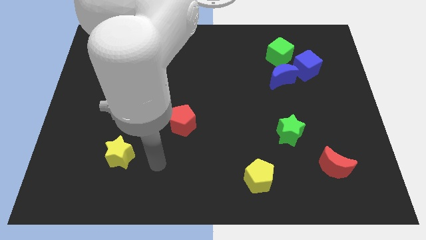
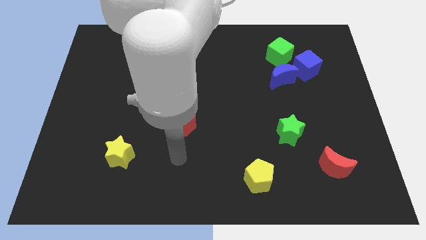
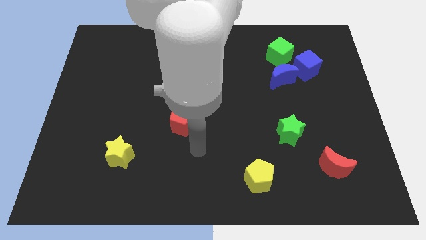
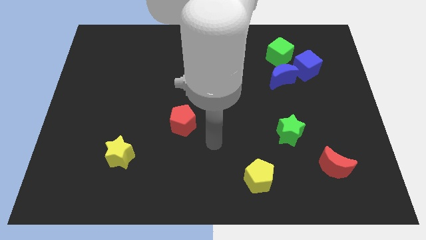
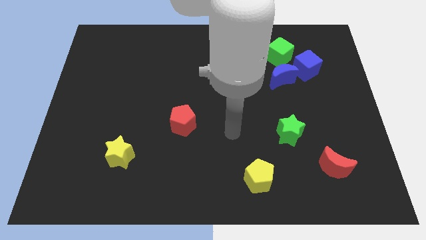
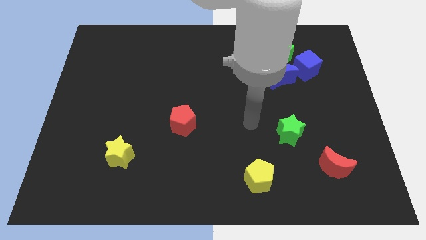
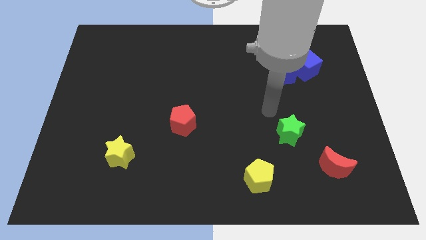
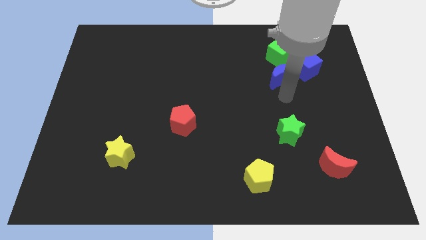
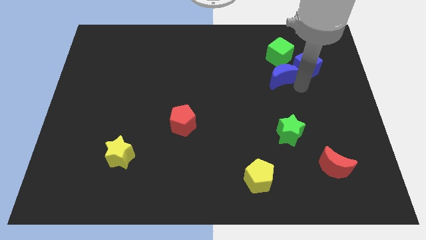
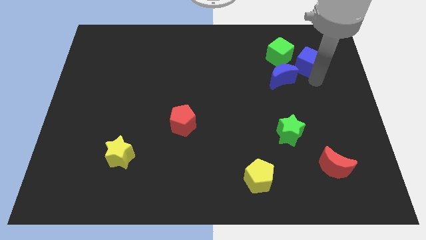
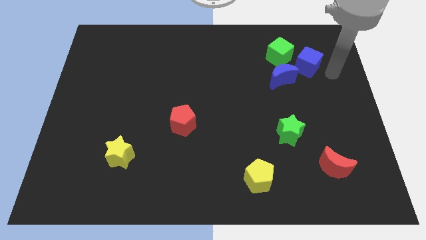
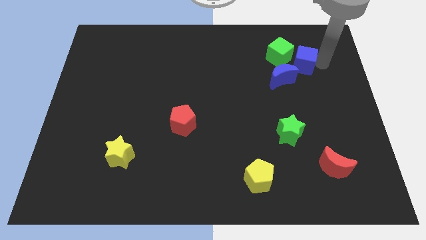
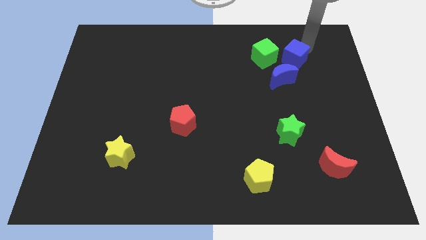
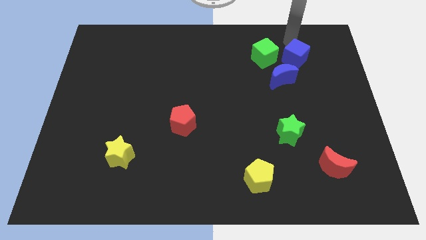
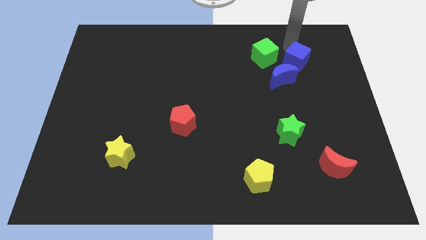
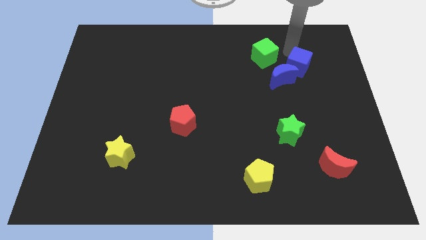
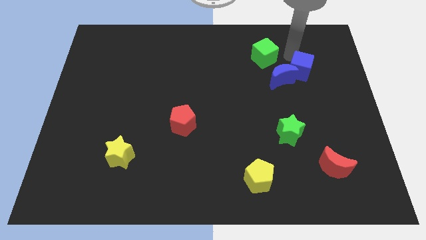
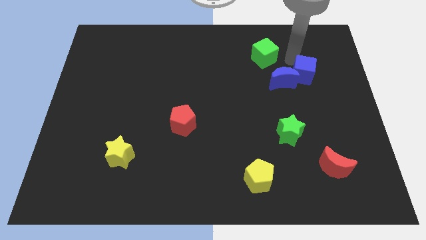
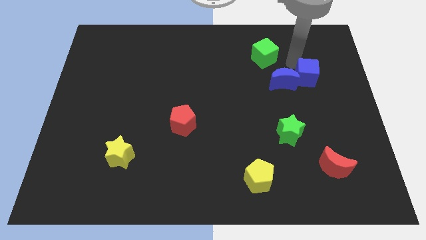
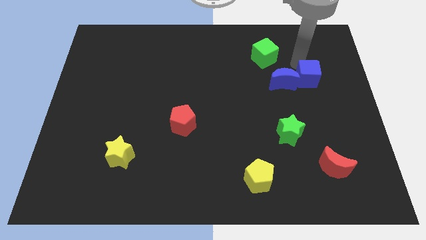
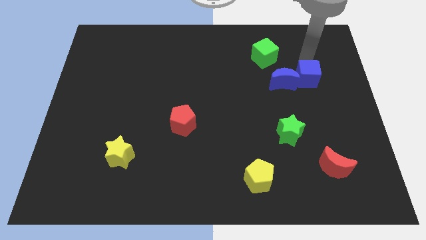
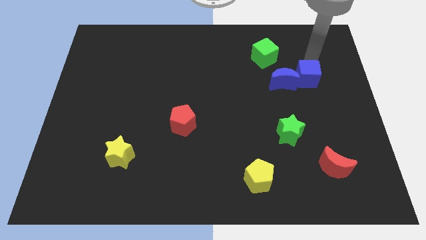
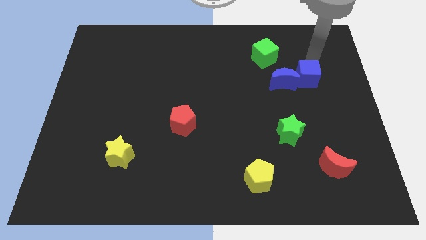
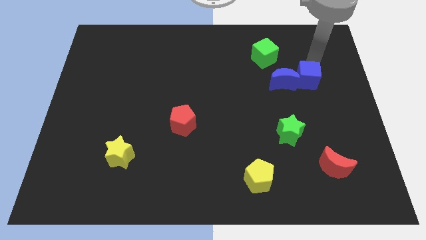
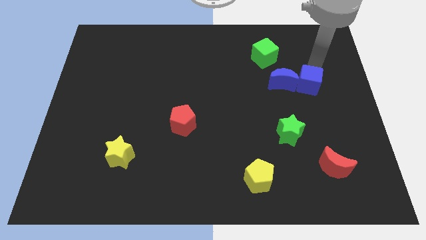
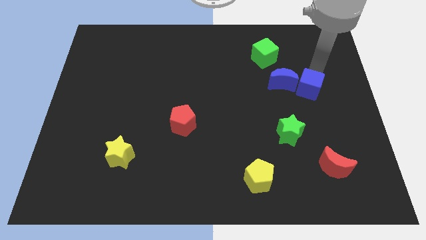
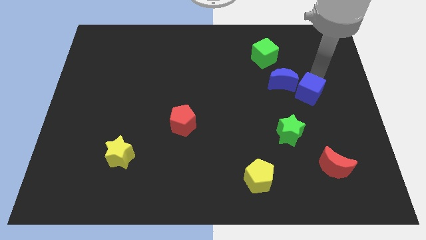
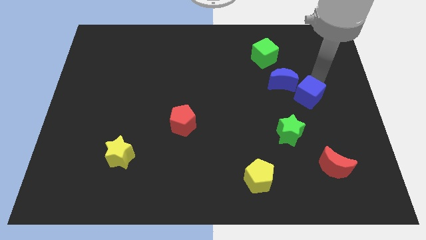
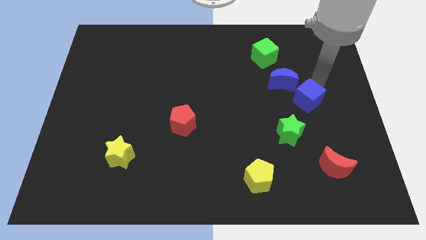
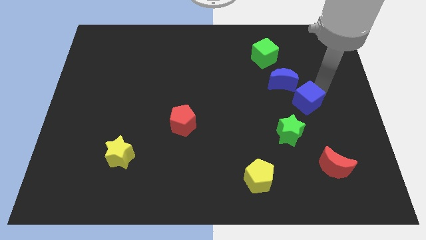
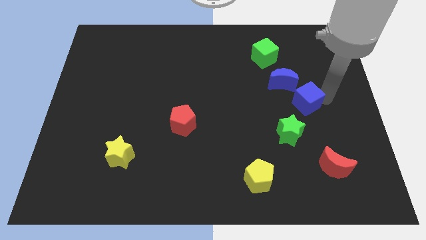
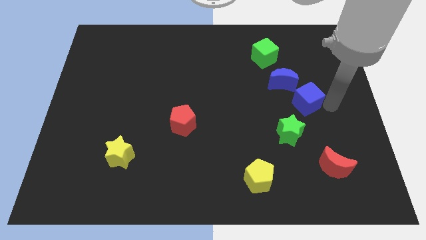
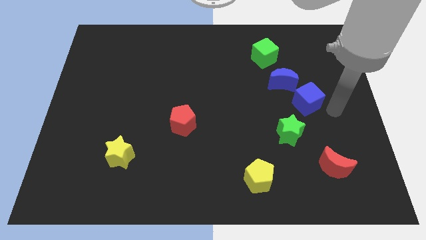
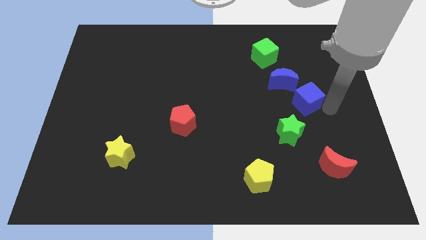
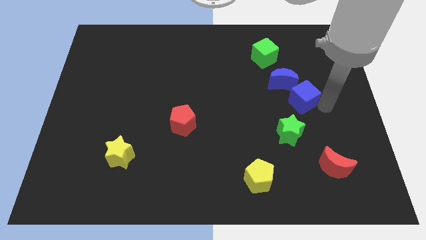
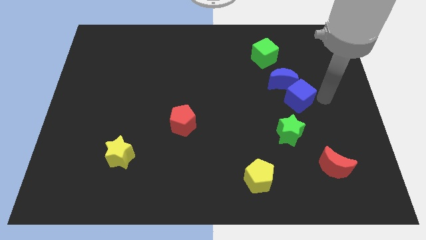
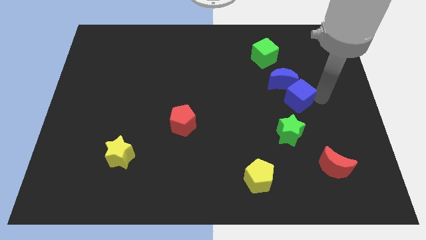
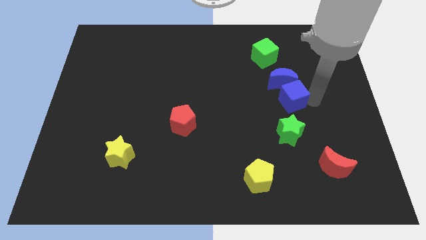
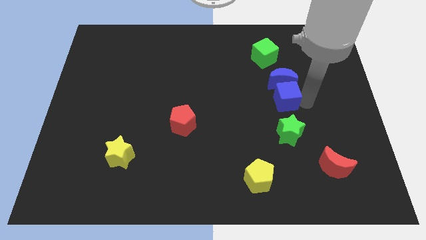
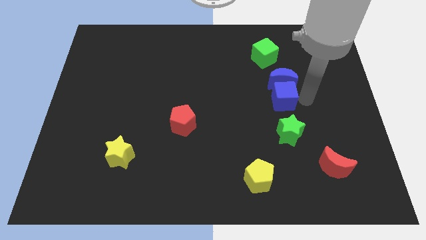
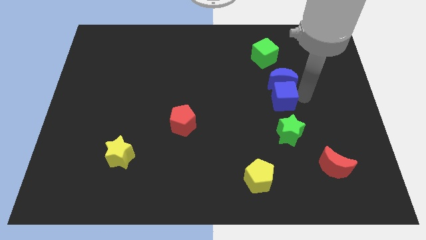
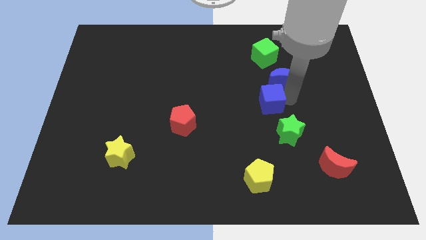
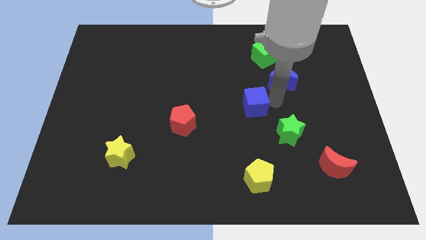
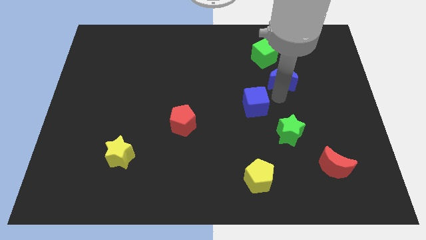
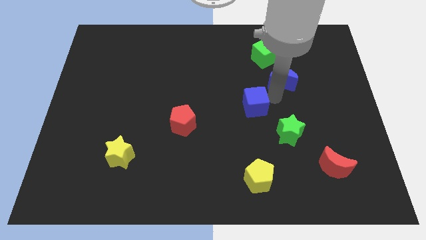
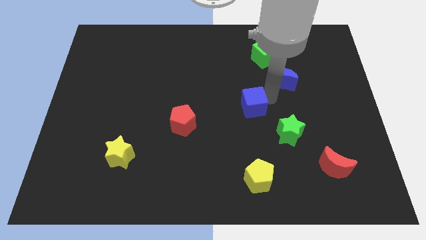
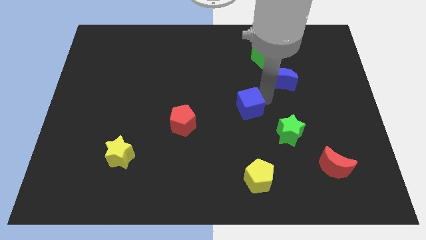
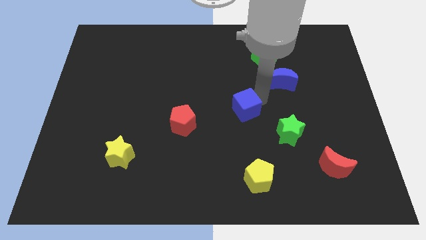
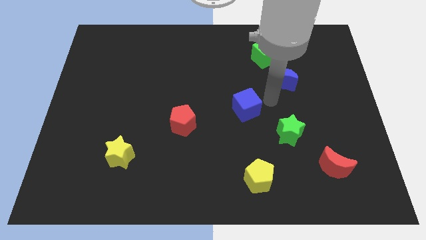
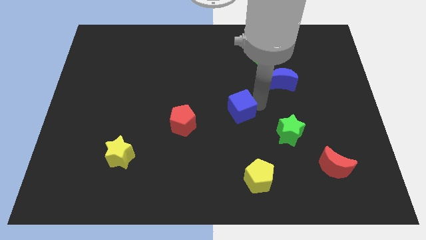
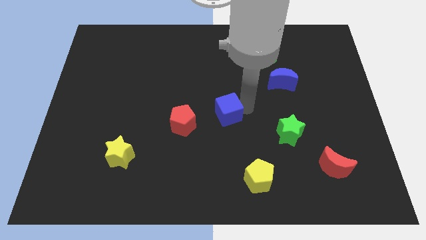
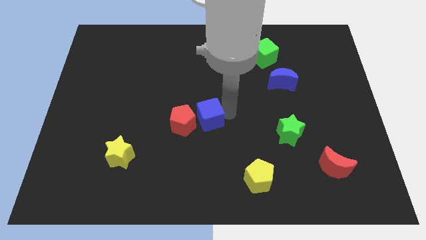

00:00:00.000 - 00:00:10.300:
slide the blue cube towards the red pentagon

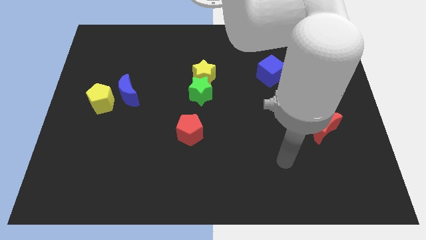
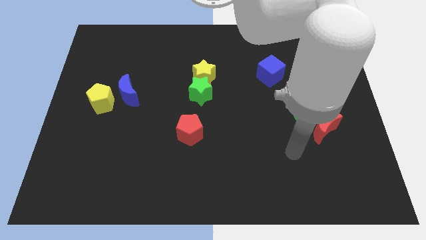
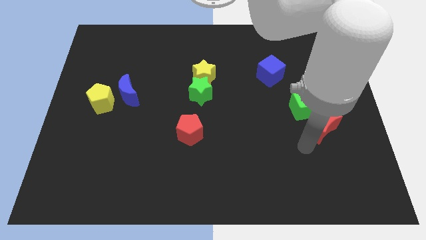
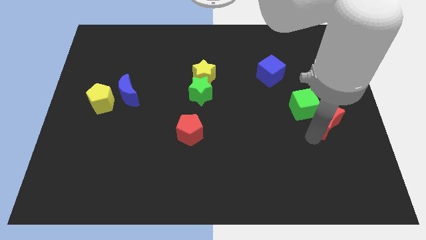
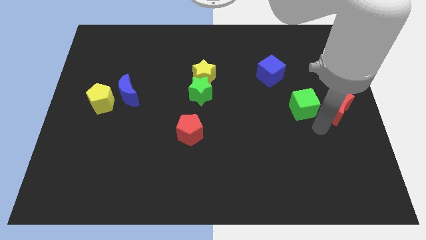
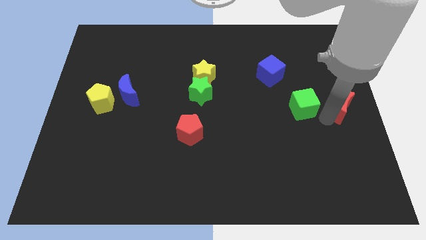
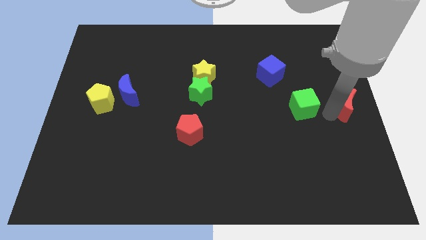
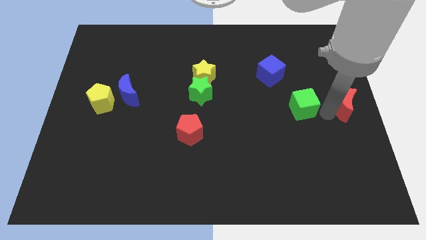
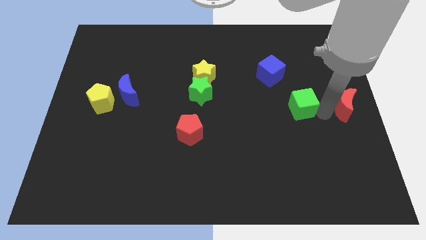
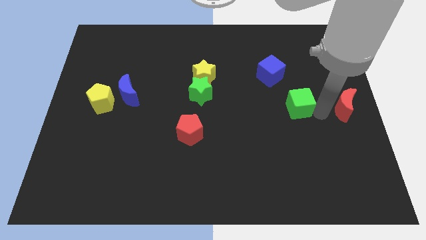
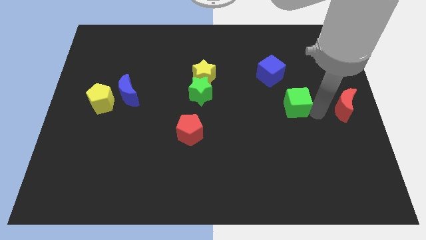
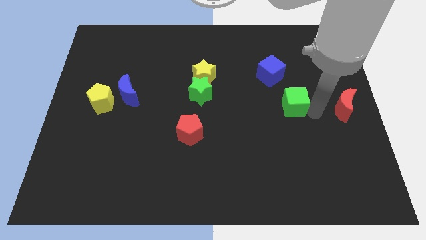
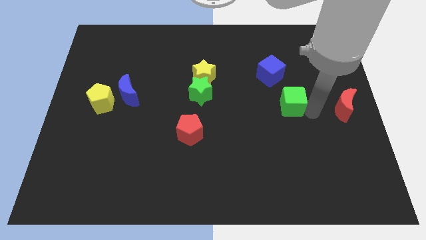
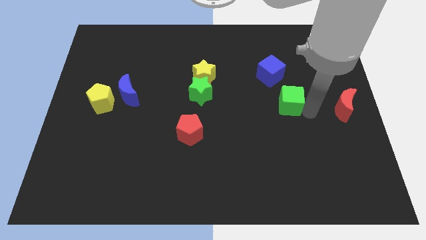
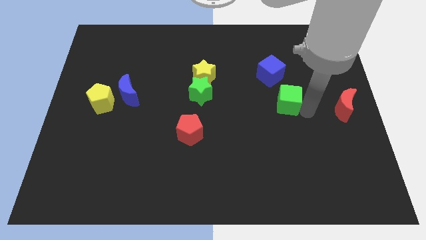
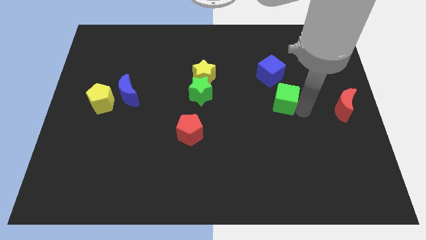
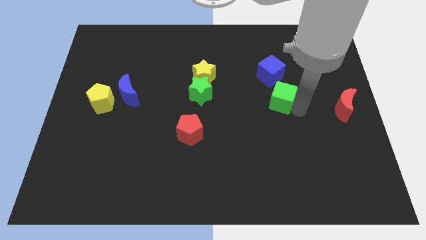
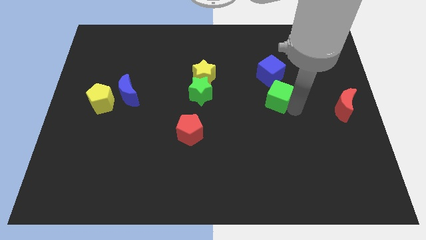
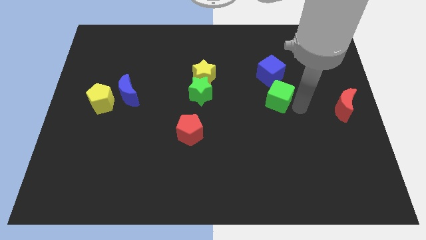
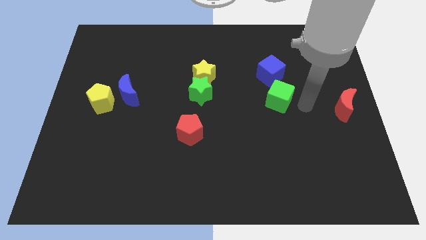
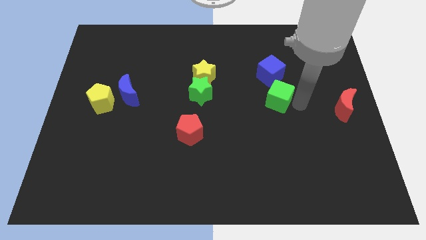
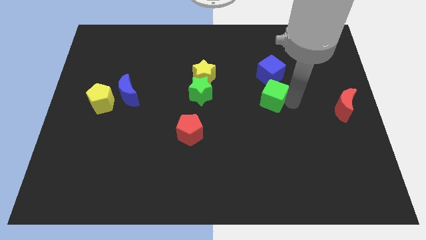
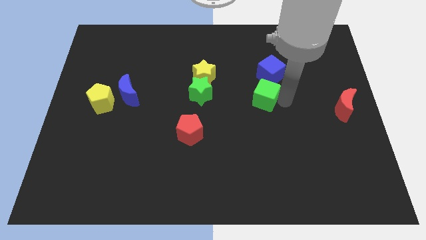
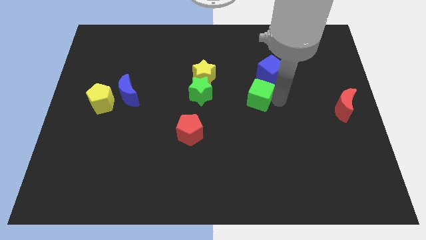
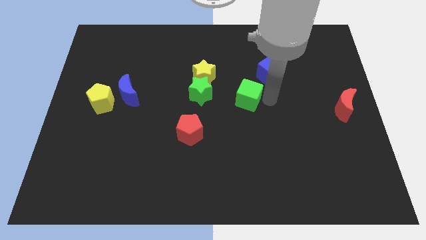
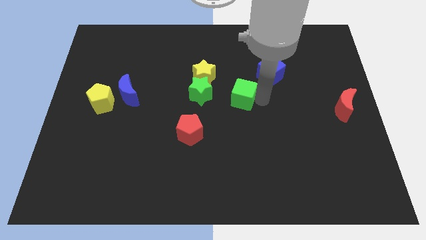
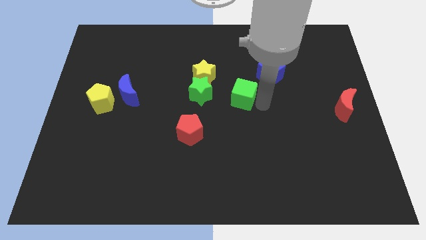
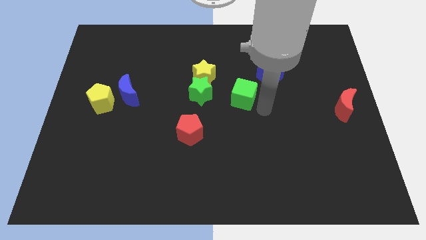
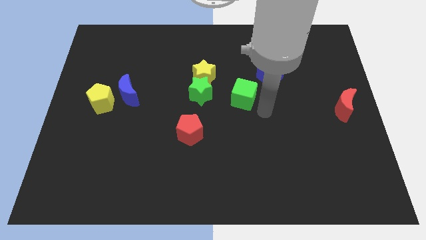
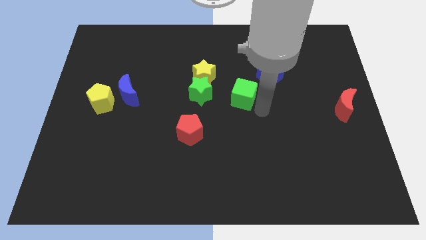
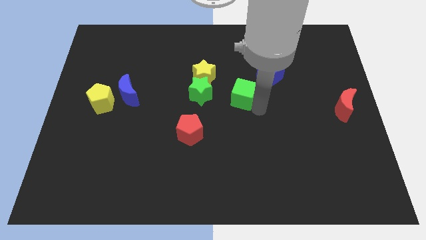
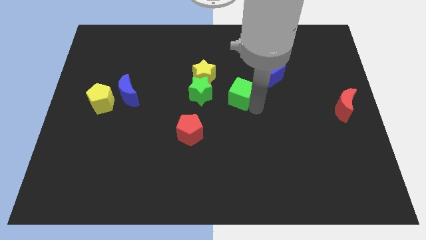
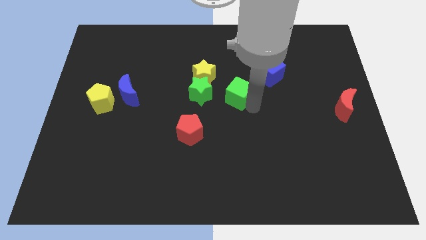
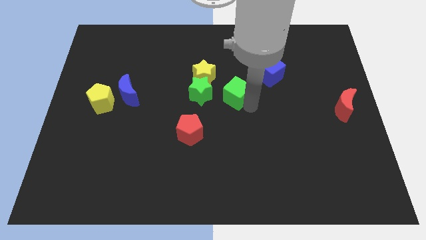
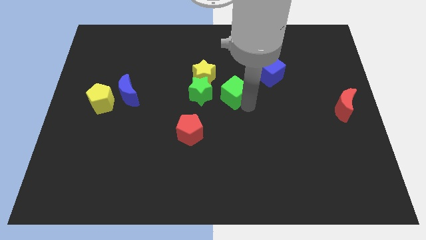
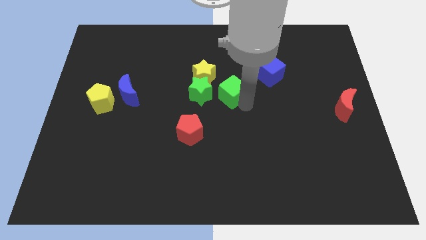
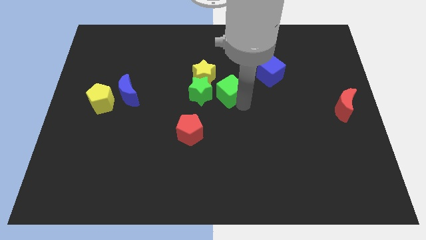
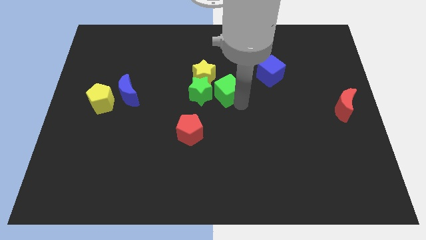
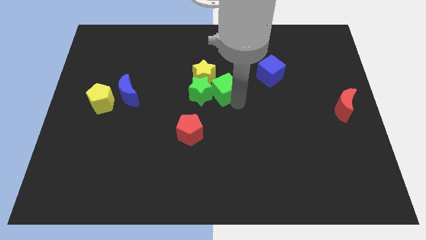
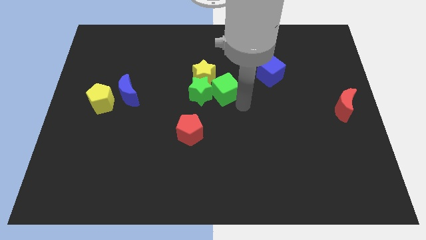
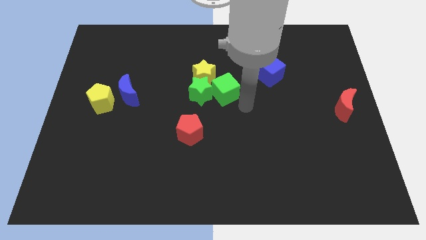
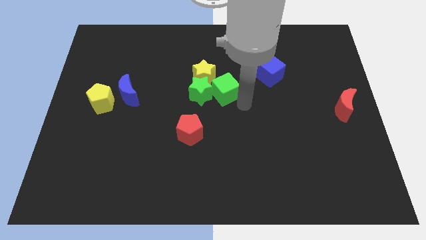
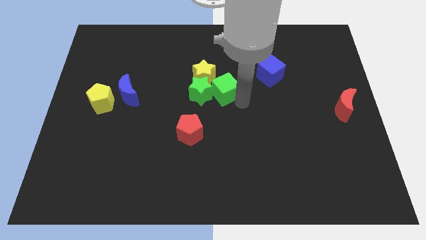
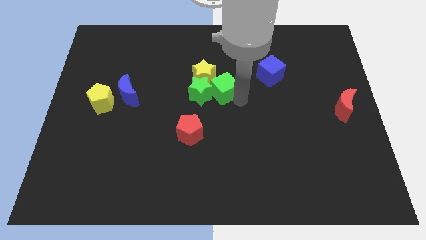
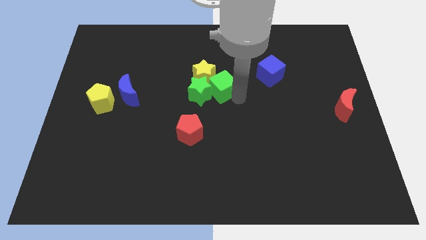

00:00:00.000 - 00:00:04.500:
push the green cube next to the yellow star
